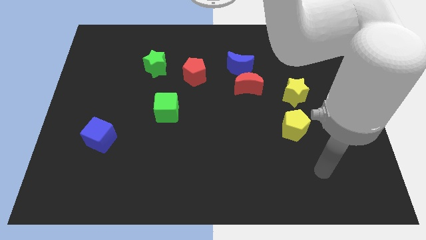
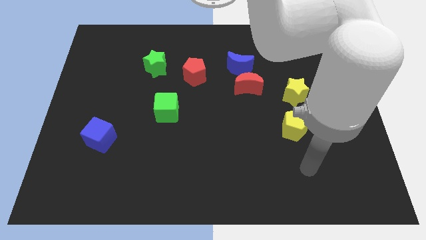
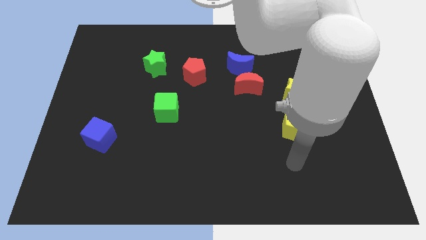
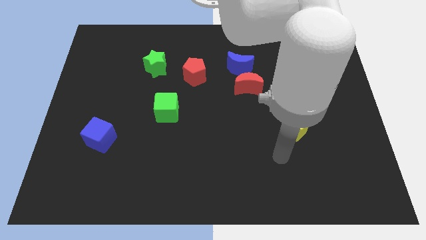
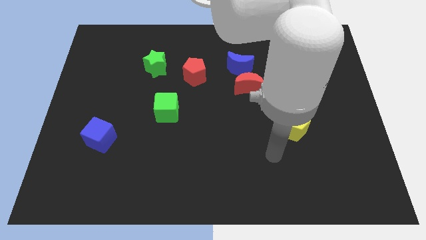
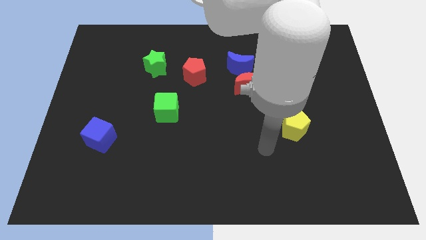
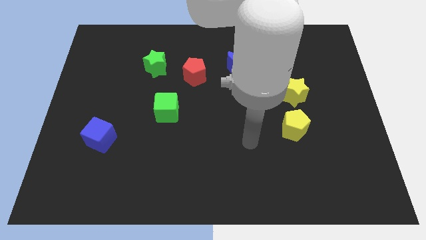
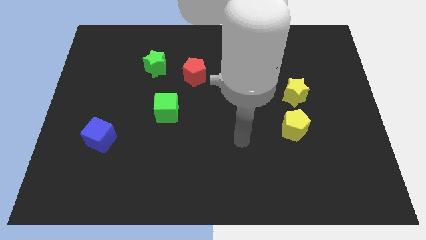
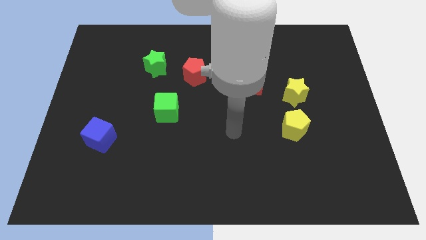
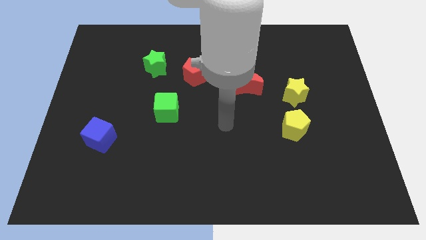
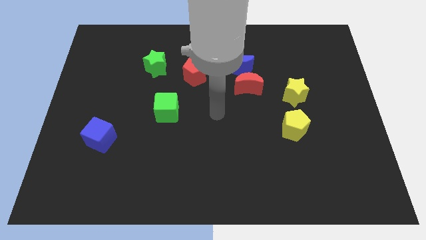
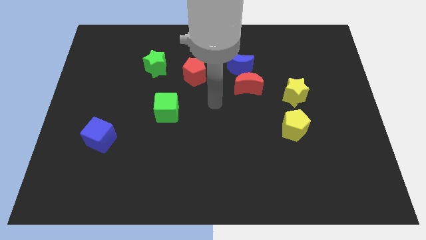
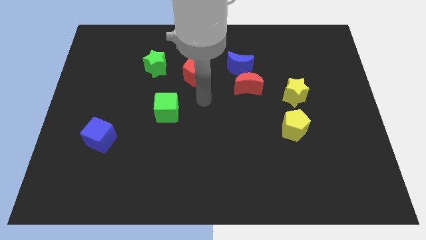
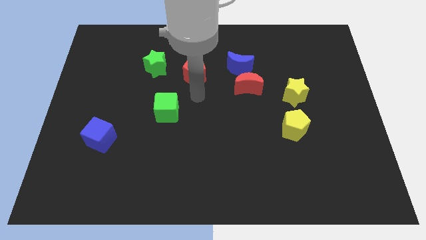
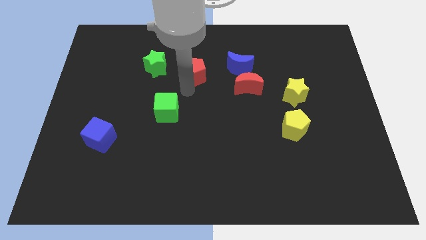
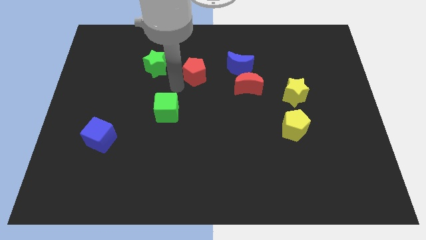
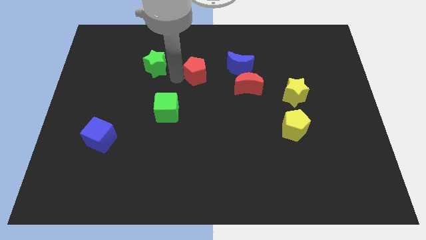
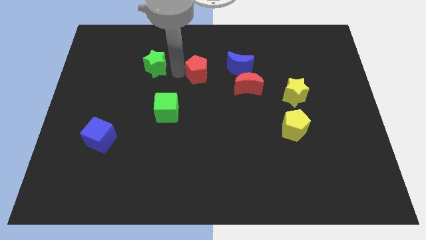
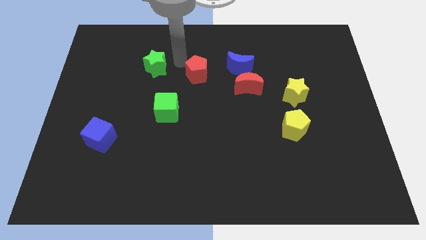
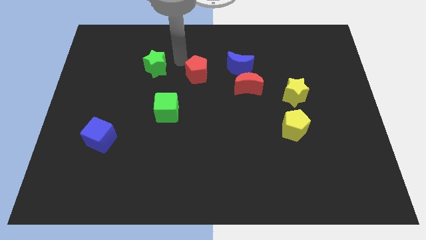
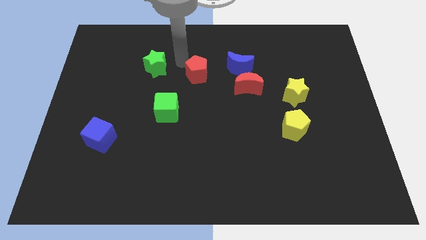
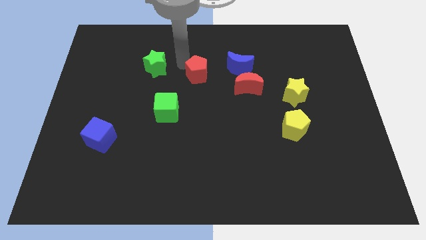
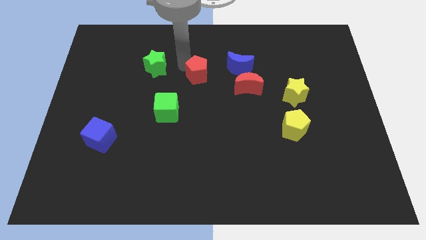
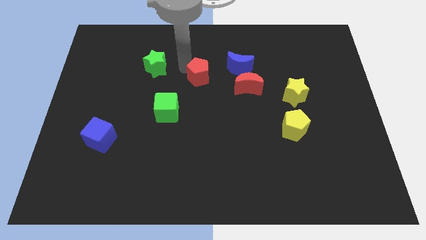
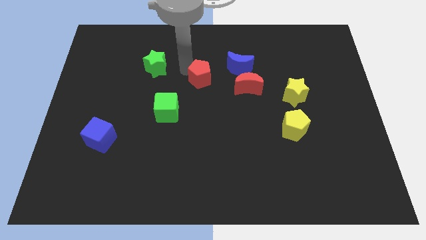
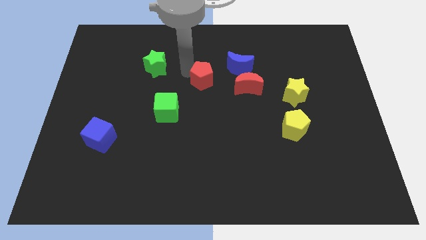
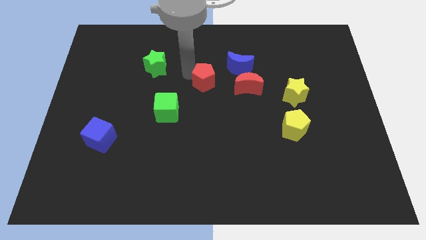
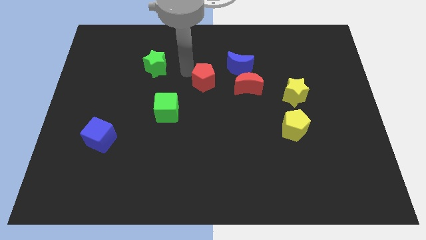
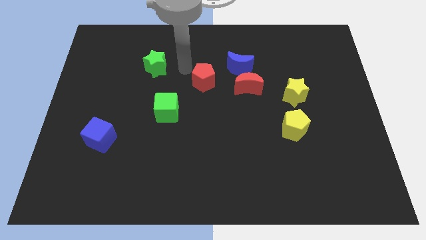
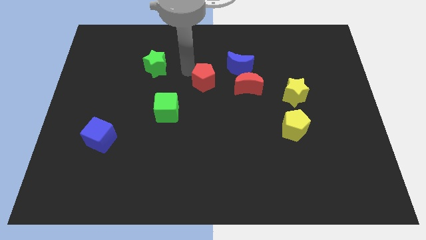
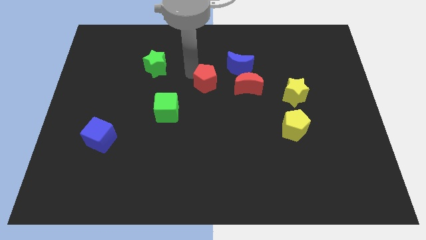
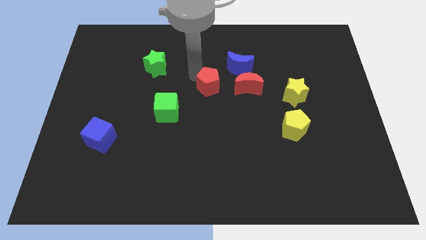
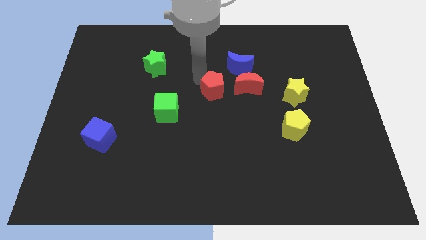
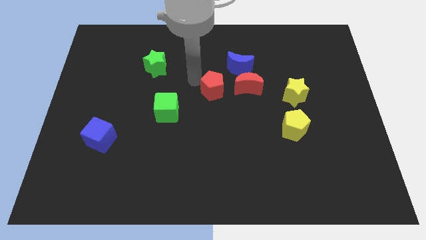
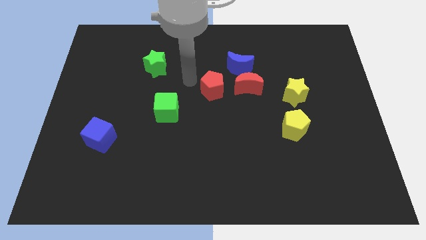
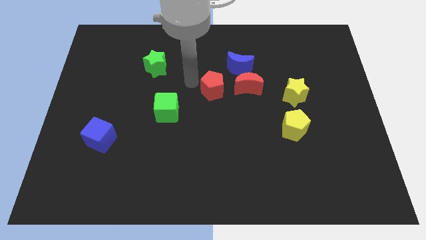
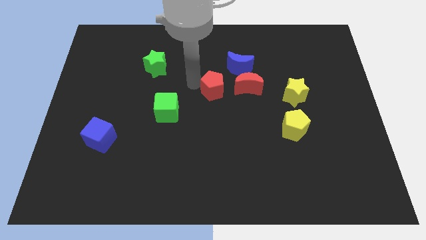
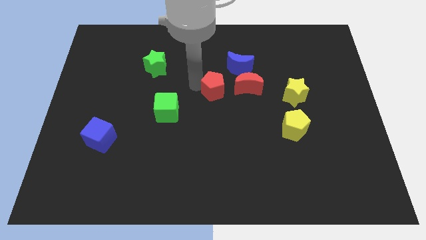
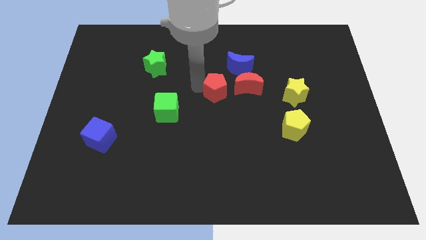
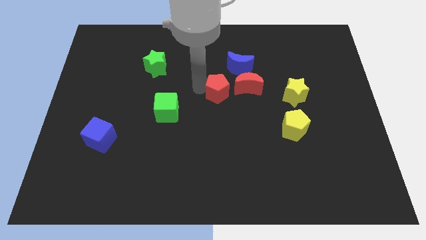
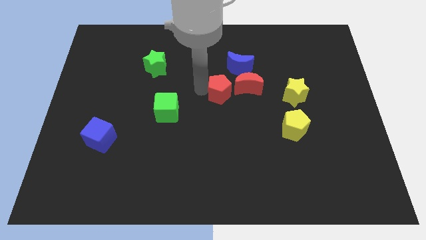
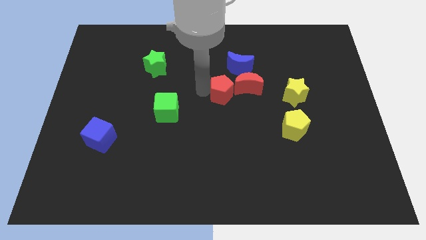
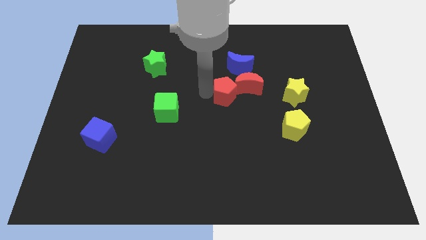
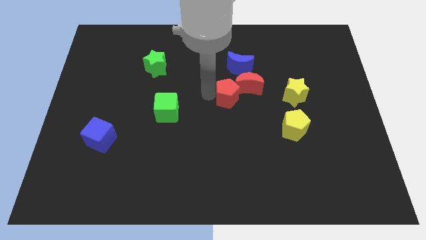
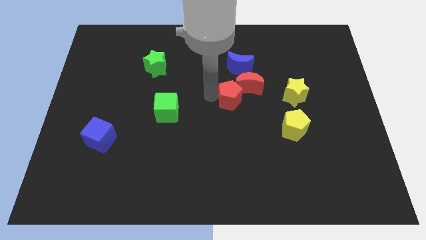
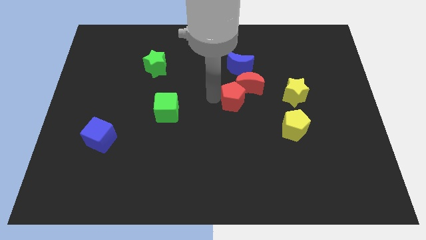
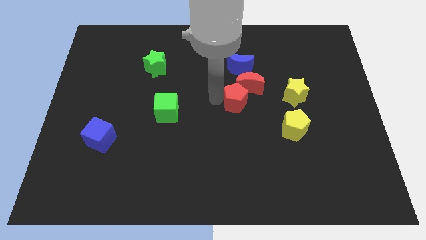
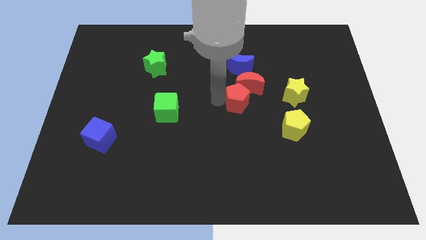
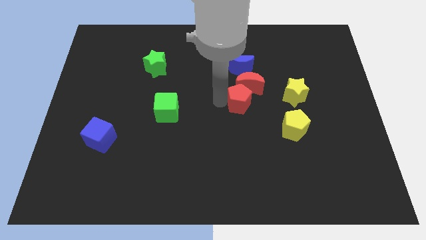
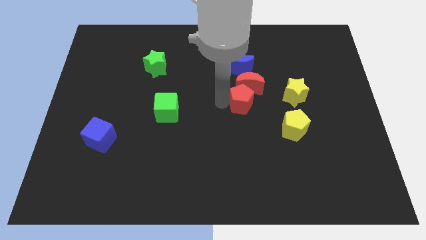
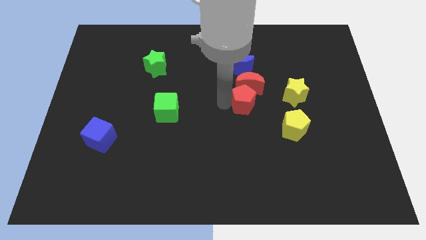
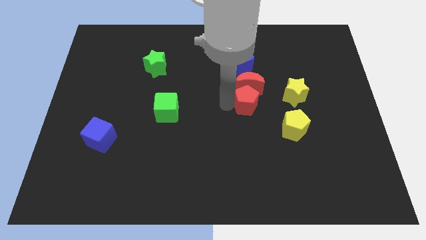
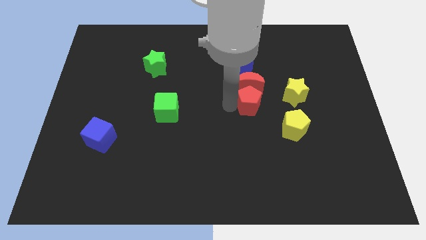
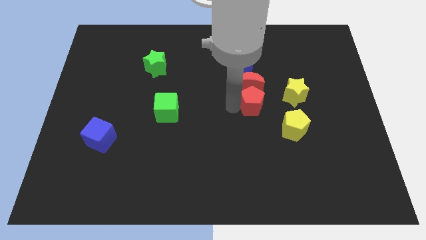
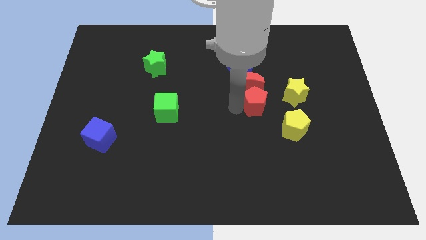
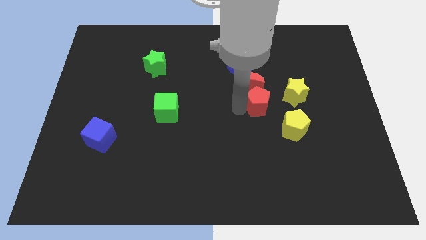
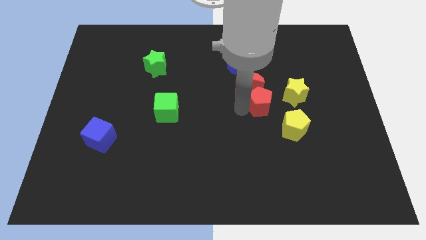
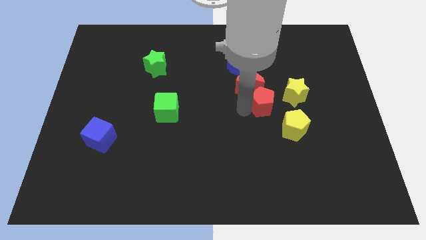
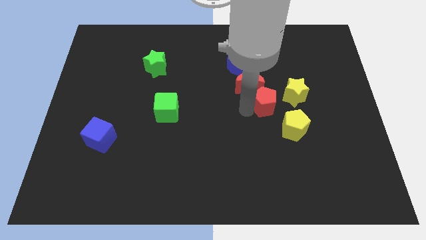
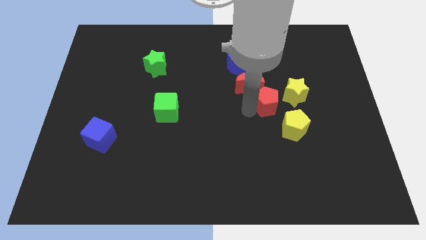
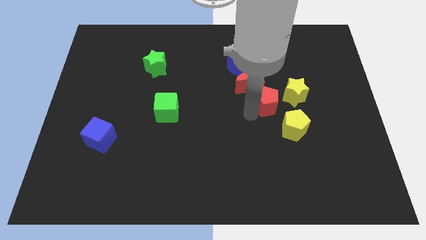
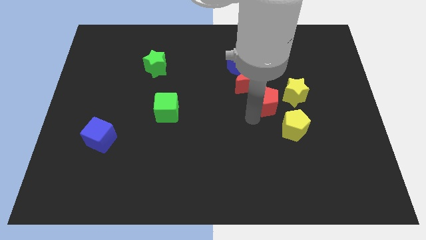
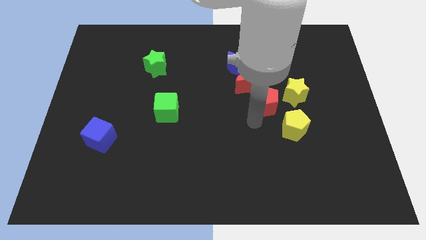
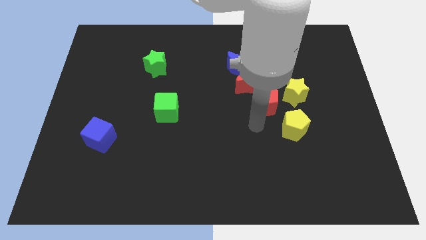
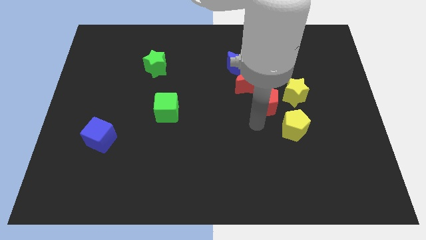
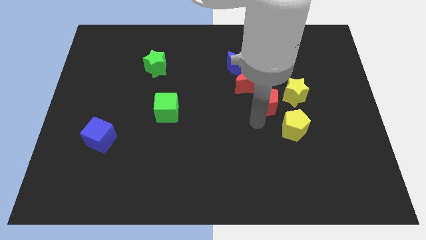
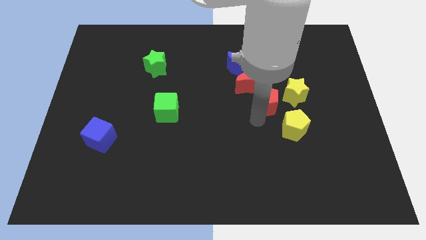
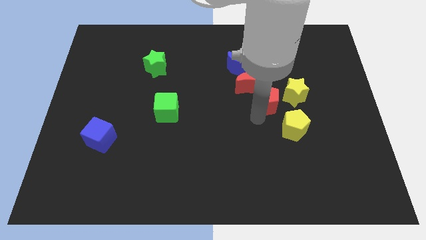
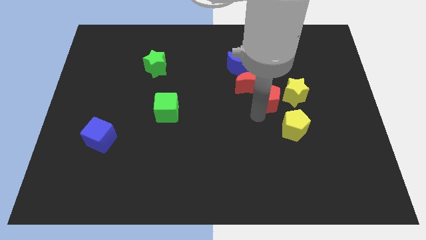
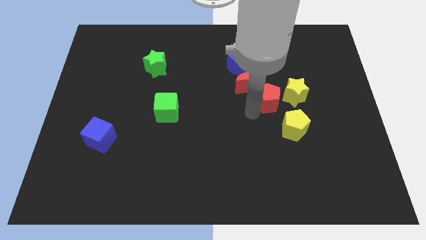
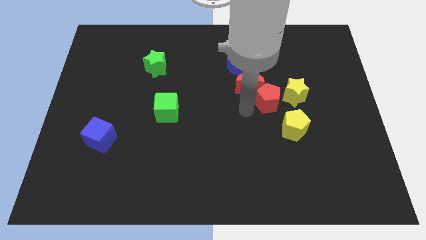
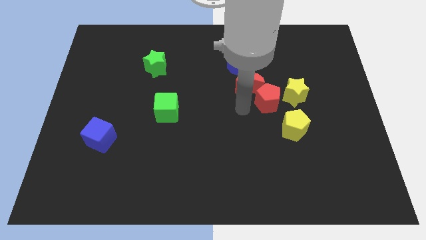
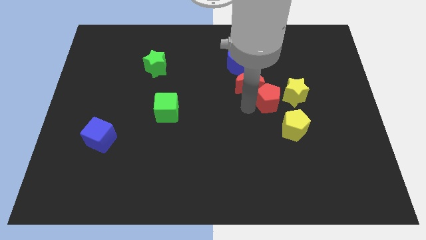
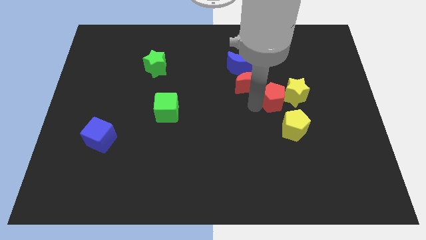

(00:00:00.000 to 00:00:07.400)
move the red pentagon towards the yellow star

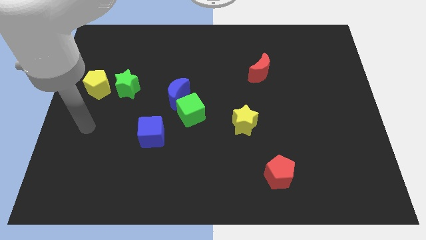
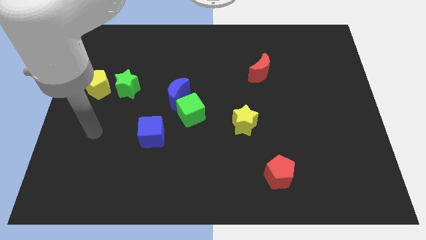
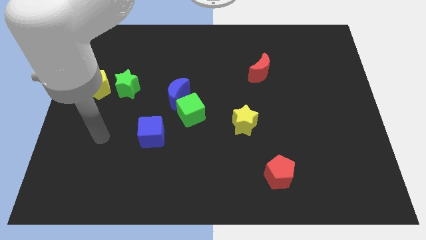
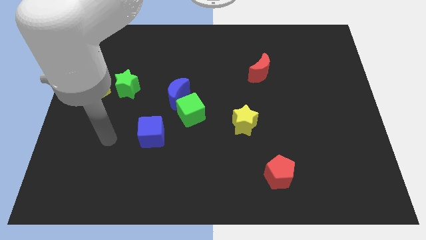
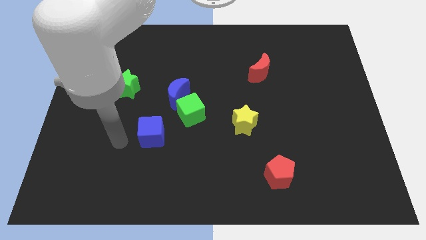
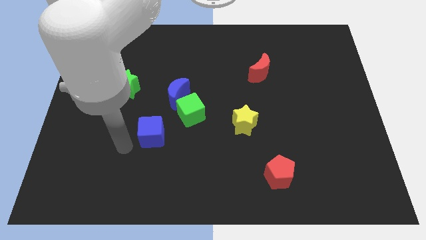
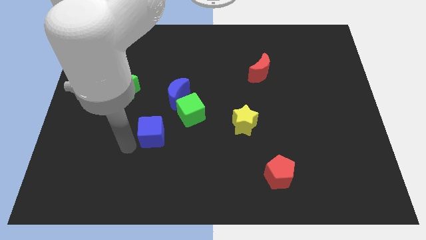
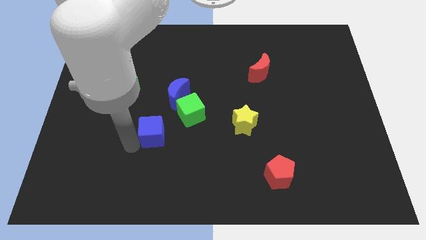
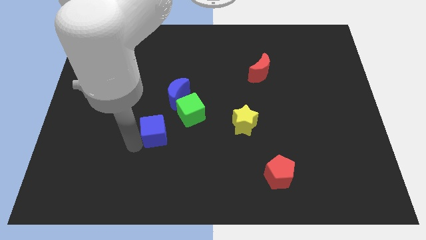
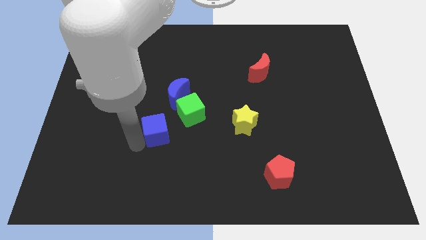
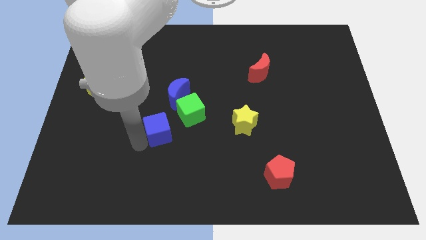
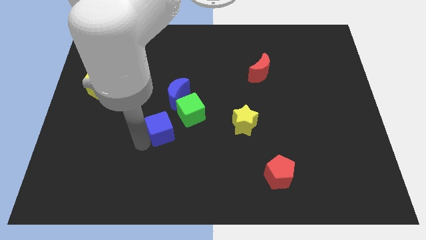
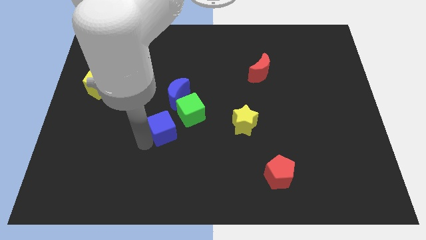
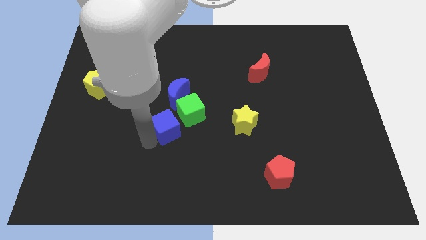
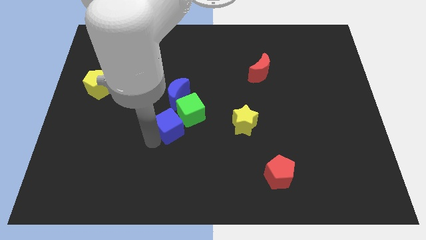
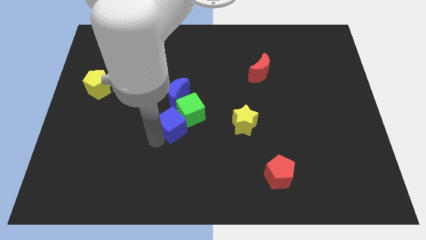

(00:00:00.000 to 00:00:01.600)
push the blue cube to the green cube
